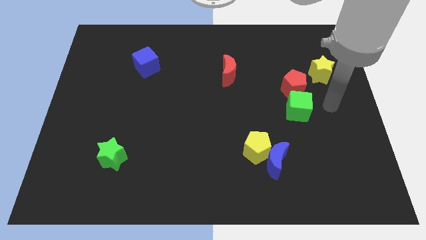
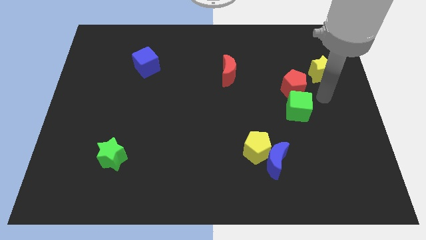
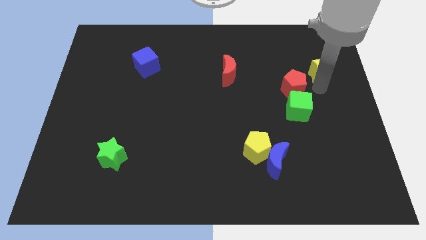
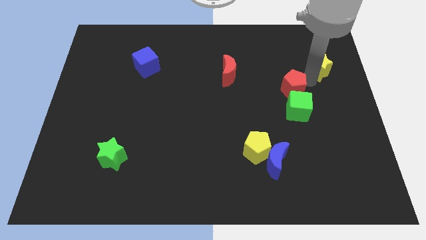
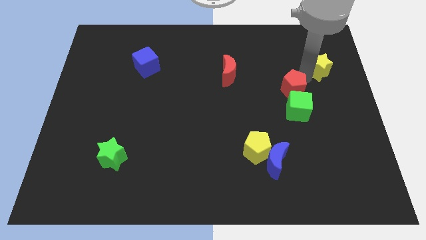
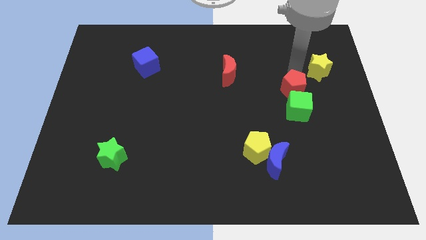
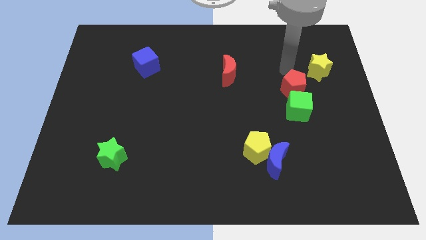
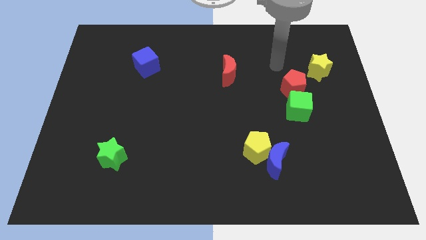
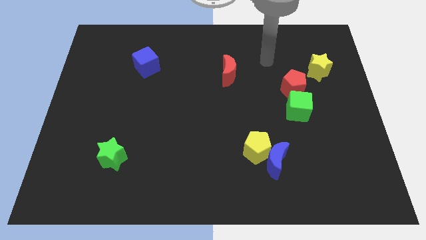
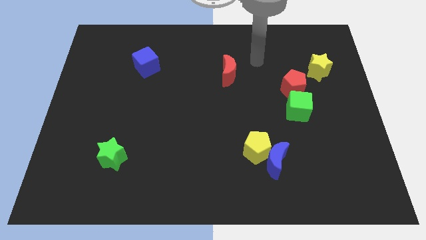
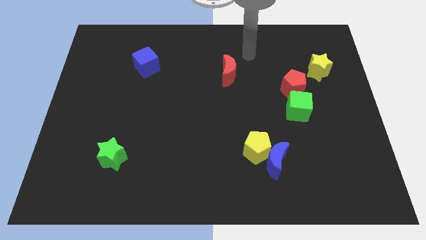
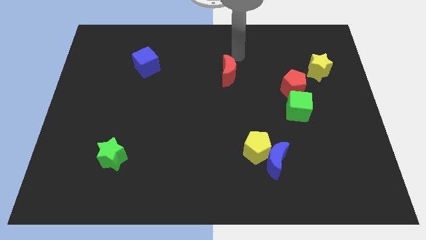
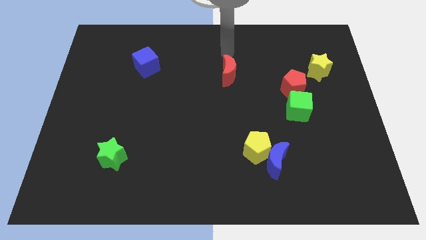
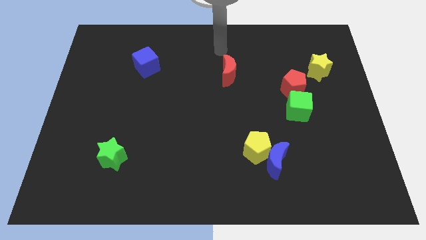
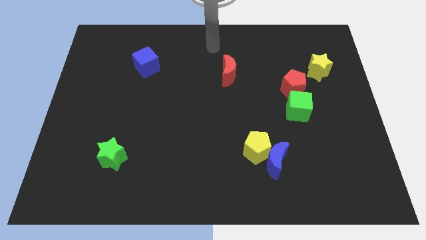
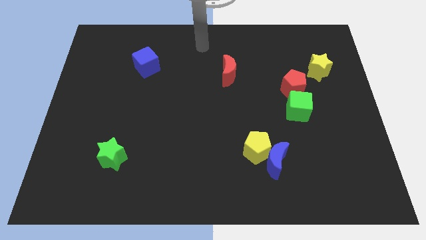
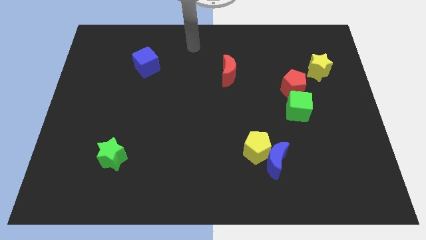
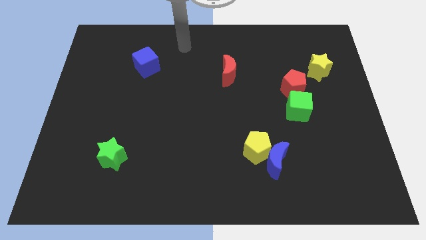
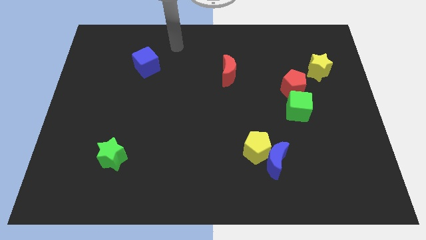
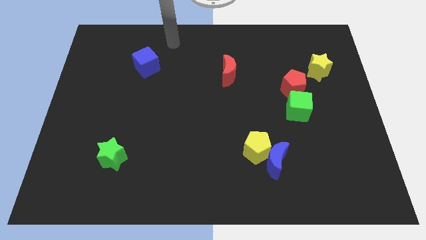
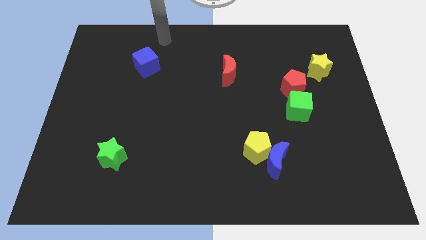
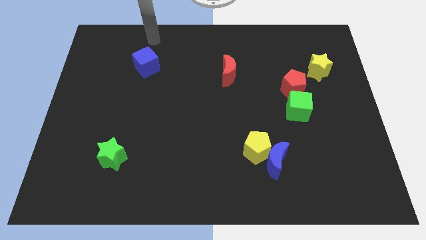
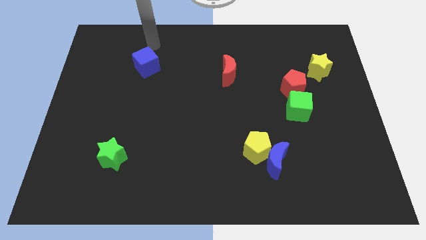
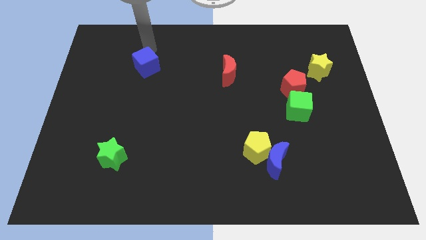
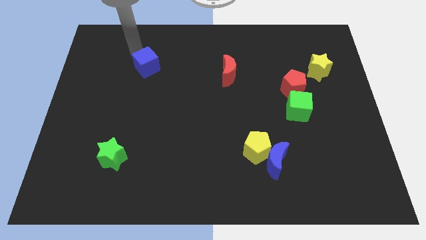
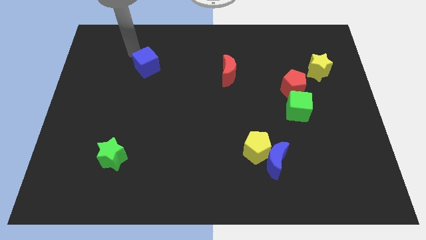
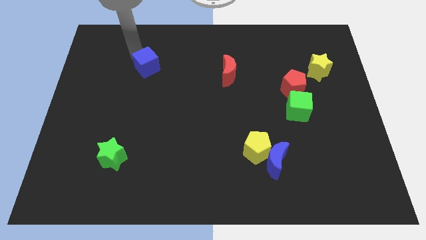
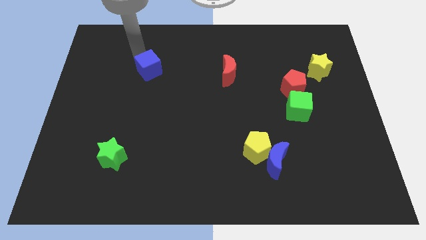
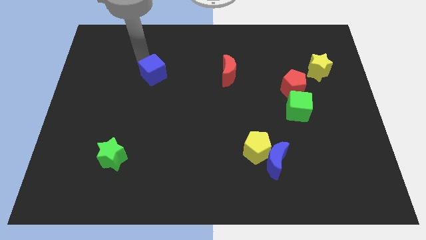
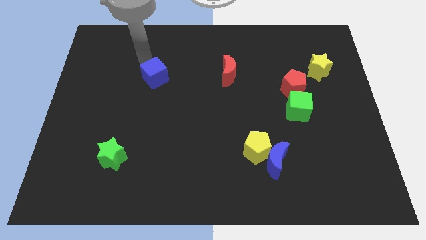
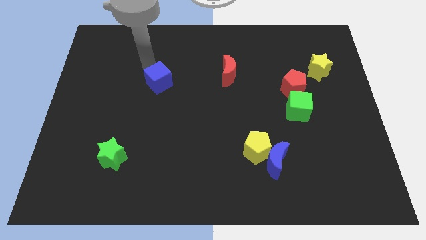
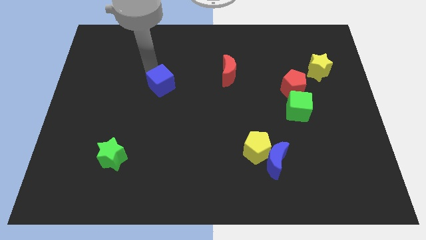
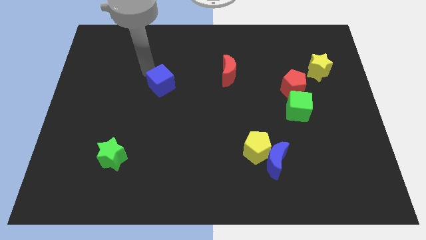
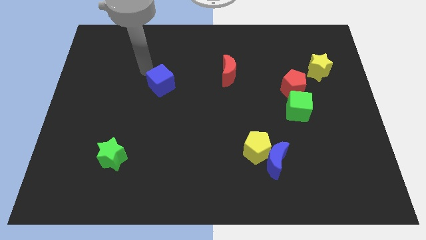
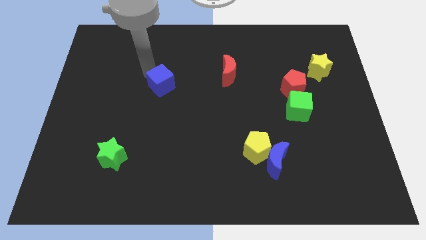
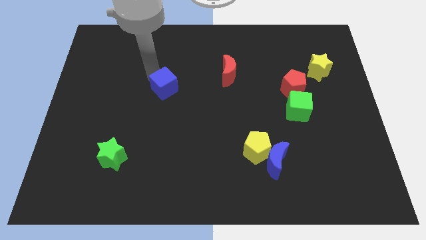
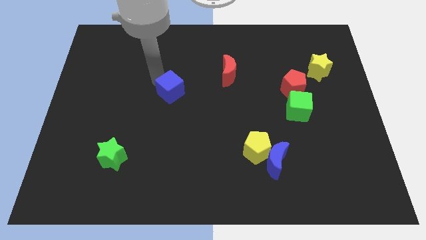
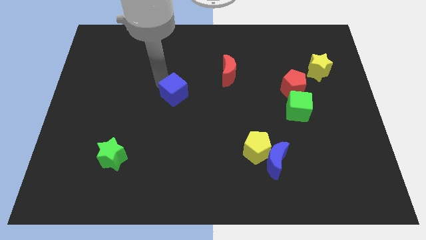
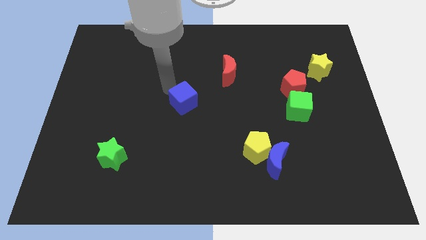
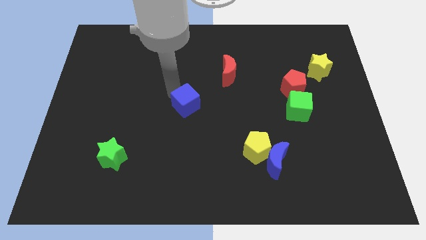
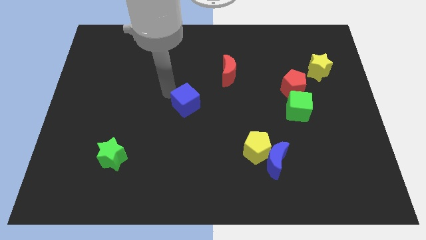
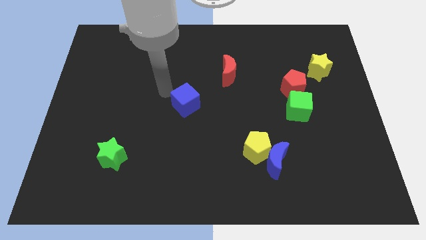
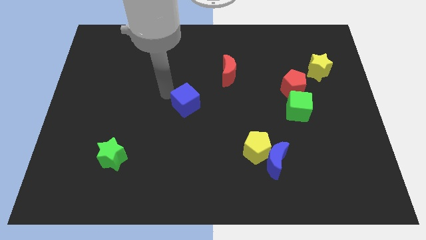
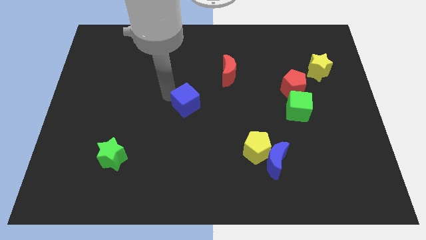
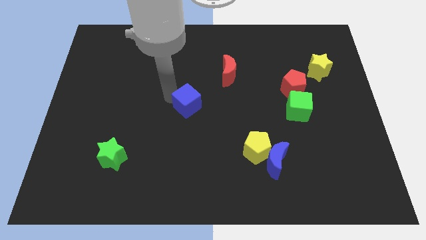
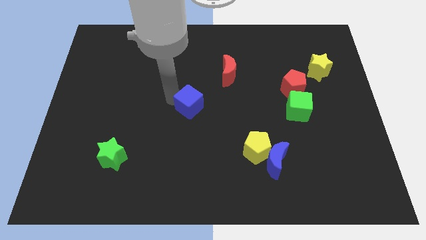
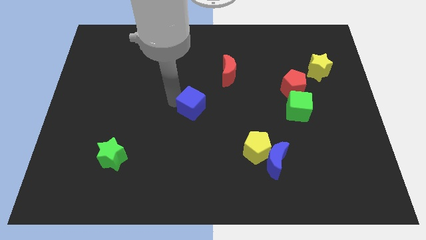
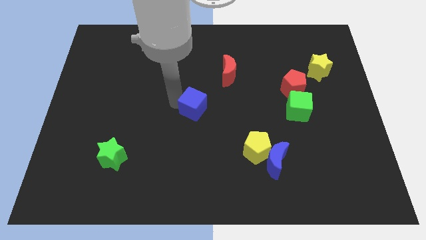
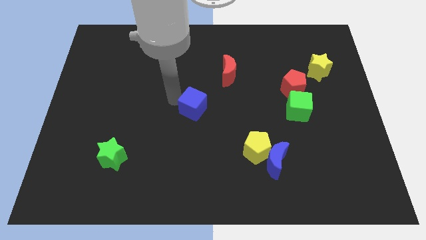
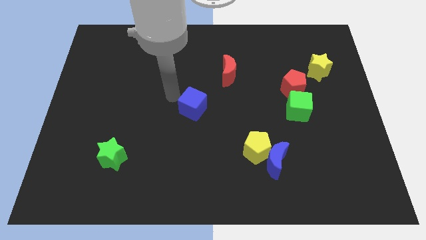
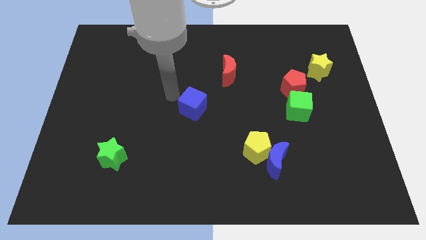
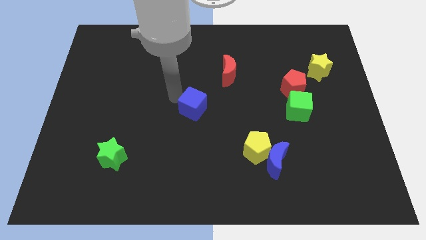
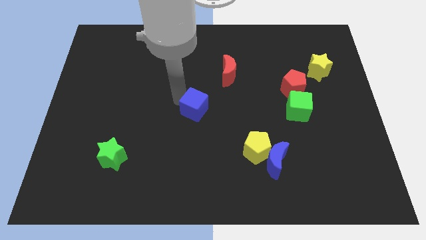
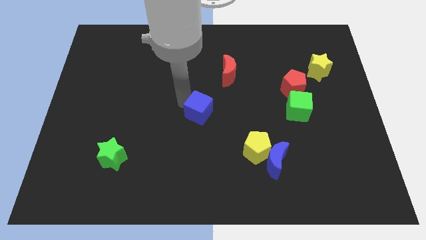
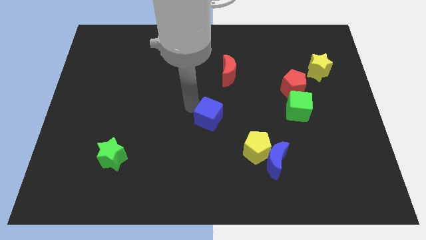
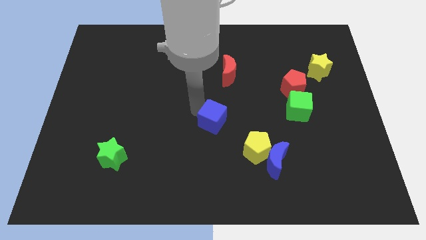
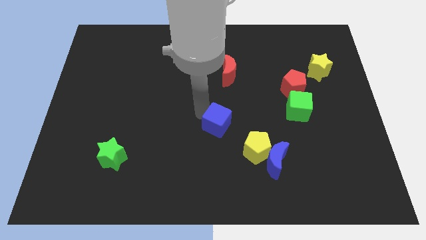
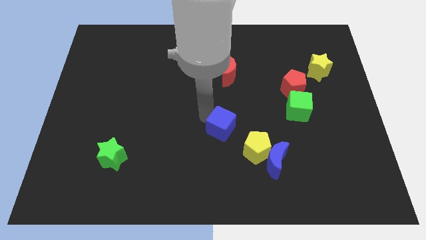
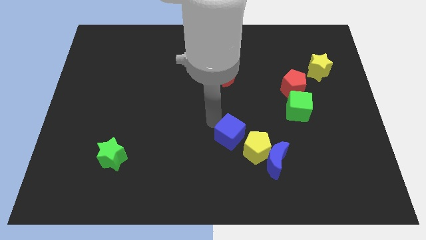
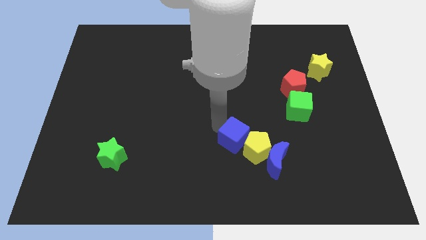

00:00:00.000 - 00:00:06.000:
move the blue cube to the yellow pentagon

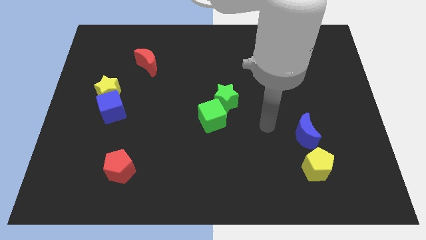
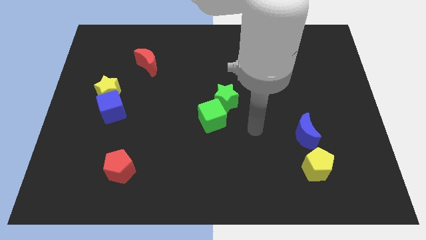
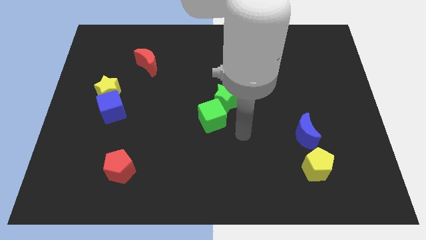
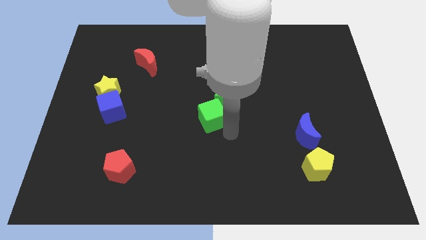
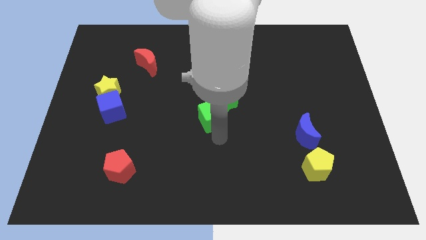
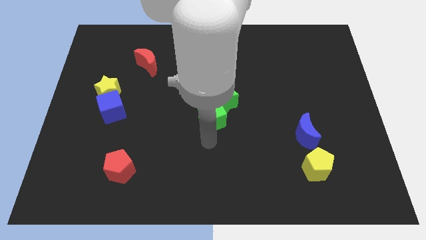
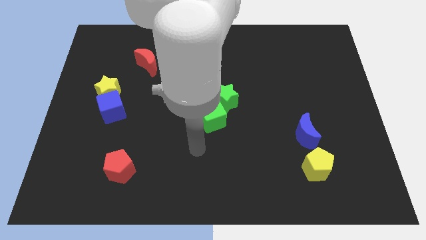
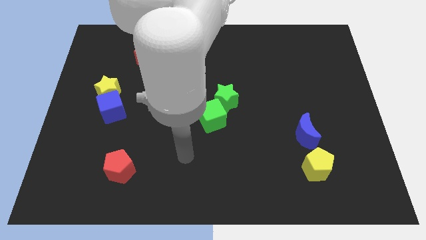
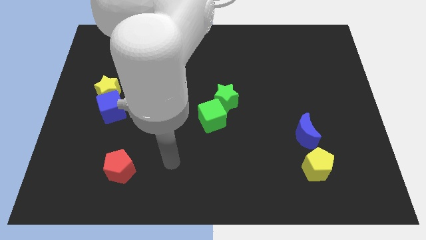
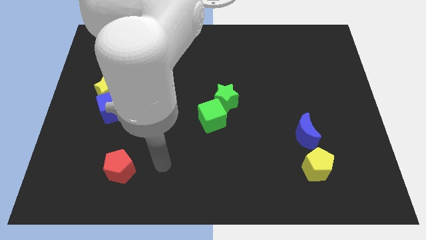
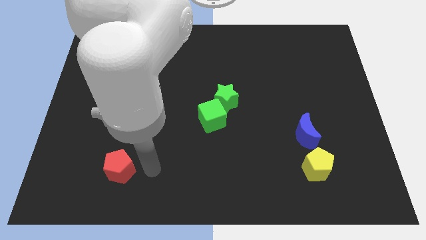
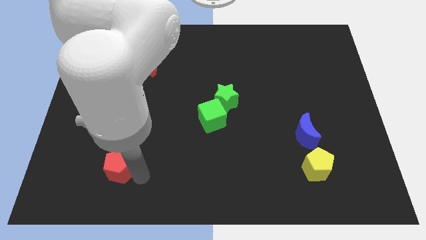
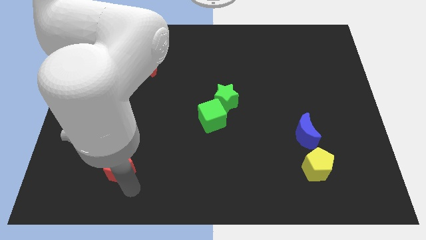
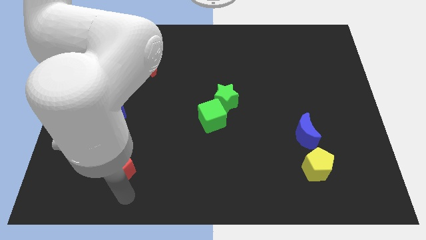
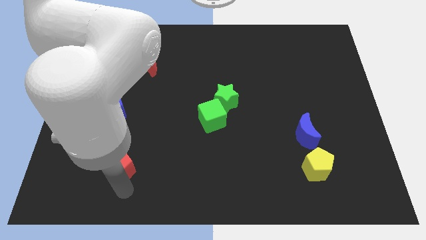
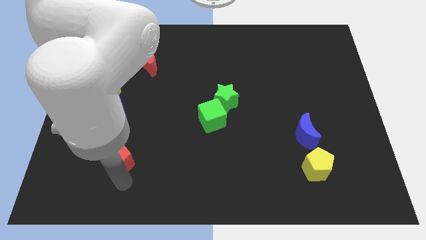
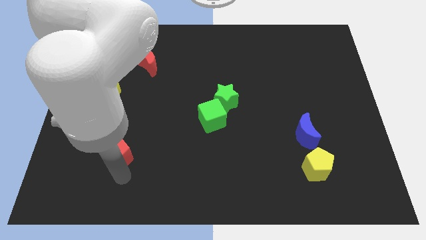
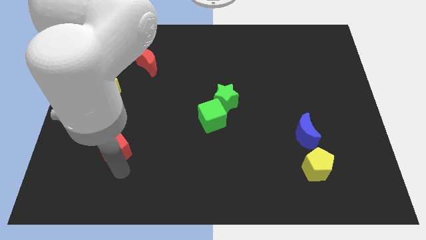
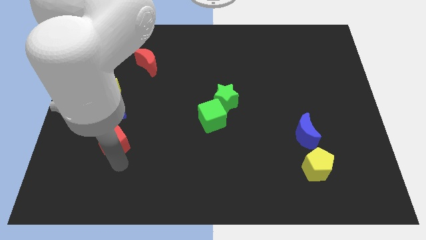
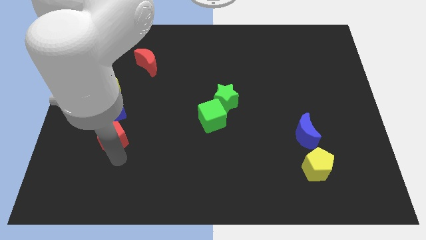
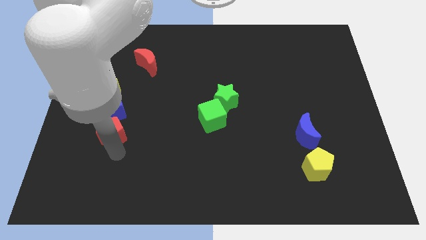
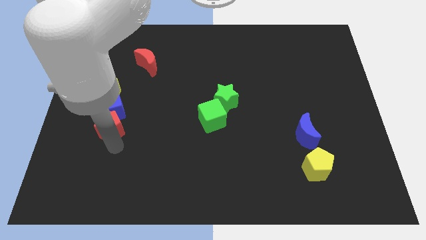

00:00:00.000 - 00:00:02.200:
put the red pentagon close to the blue cube
